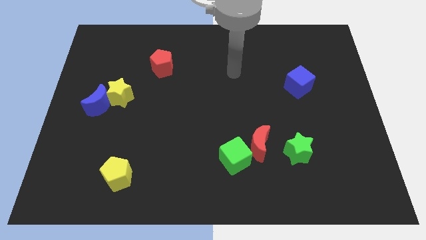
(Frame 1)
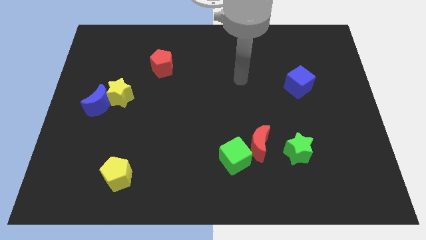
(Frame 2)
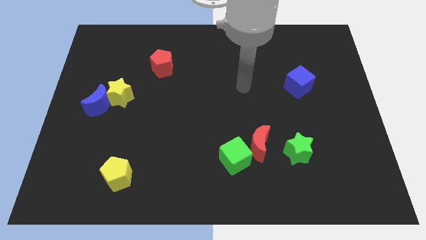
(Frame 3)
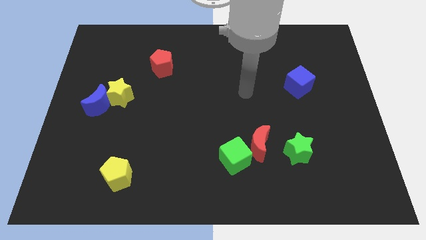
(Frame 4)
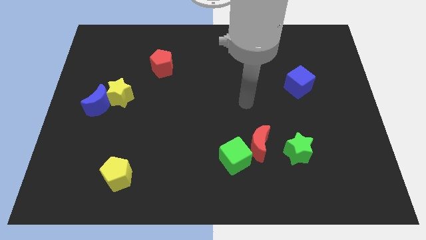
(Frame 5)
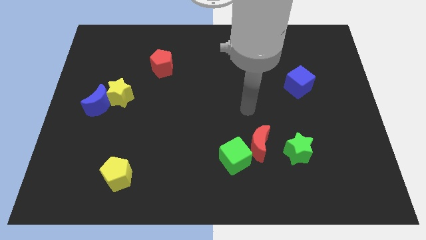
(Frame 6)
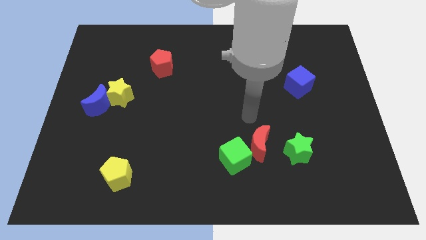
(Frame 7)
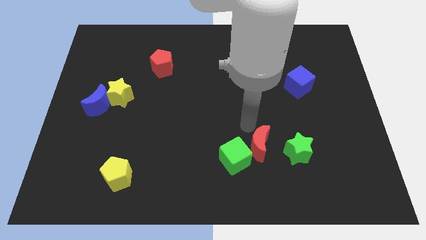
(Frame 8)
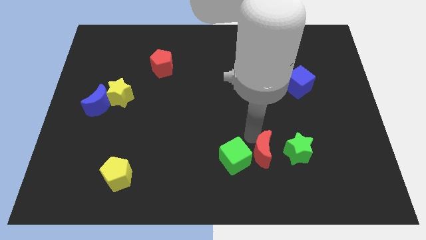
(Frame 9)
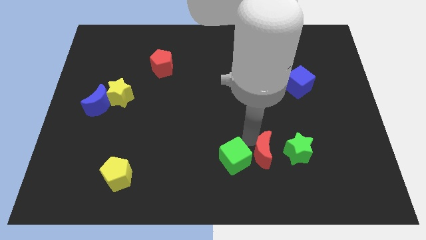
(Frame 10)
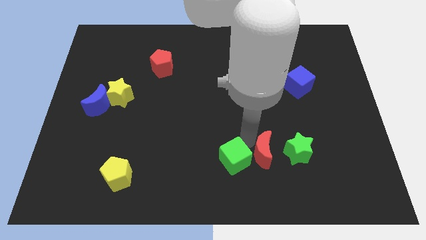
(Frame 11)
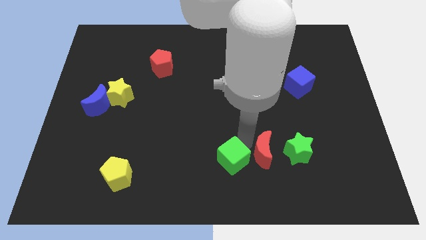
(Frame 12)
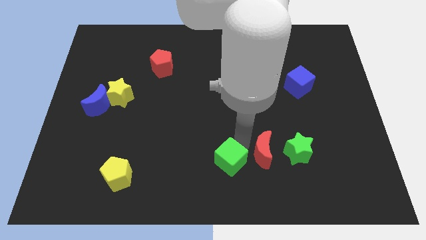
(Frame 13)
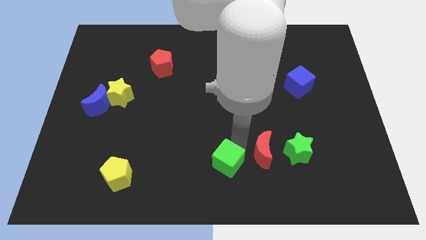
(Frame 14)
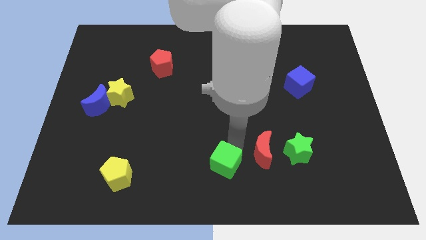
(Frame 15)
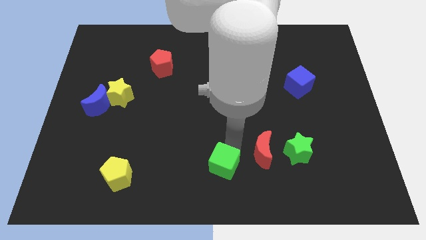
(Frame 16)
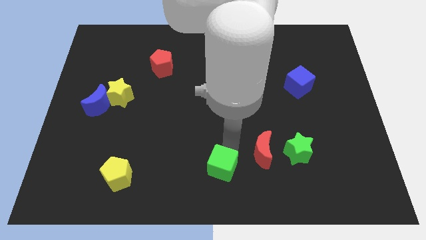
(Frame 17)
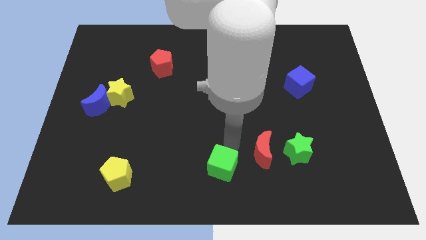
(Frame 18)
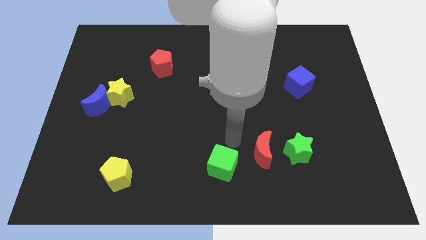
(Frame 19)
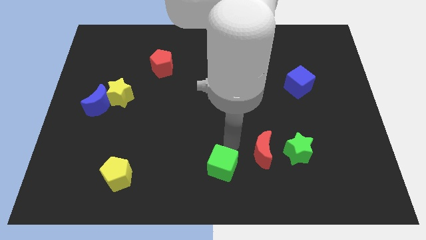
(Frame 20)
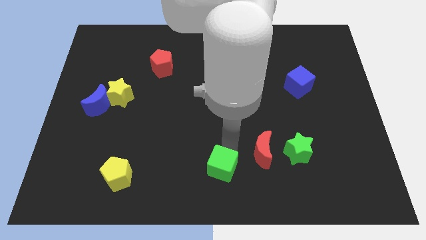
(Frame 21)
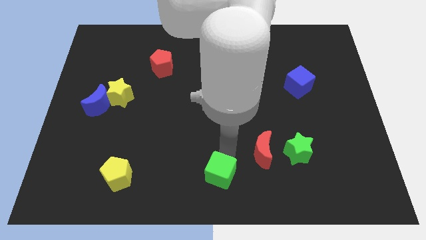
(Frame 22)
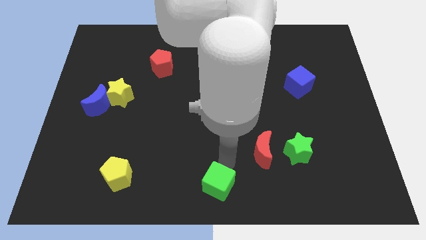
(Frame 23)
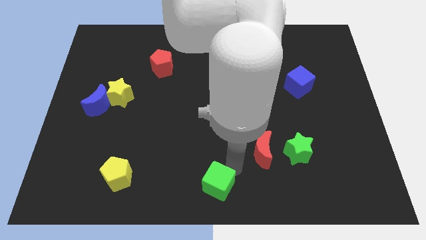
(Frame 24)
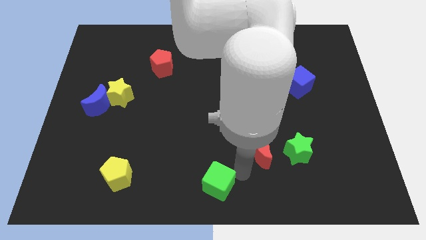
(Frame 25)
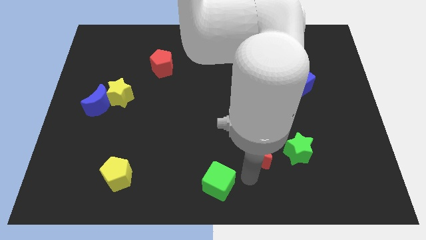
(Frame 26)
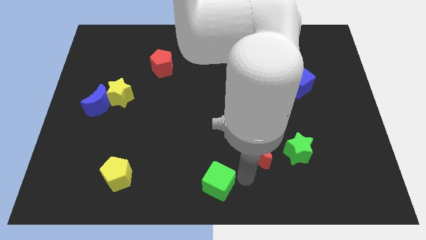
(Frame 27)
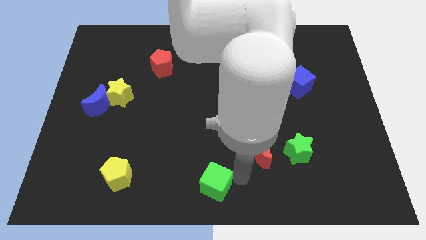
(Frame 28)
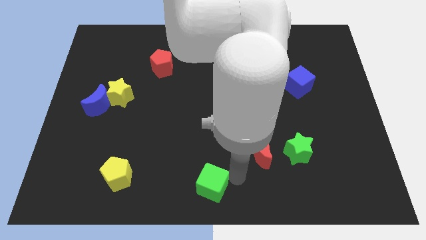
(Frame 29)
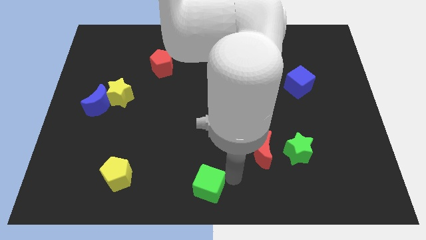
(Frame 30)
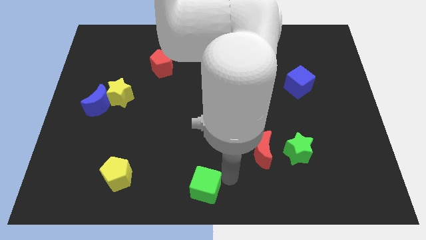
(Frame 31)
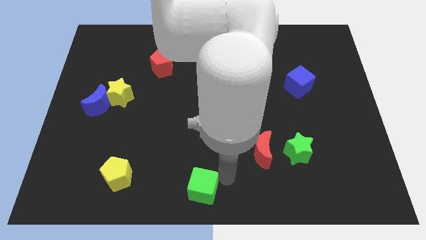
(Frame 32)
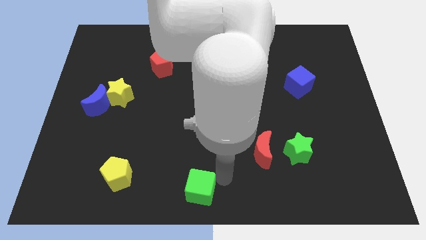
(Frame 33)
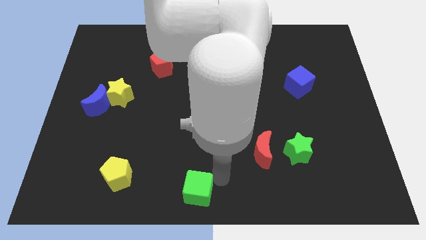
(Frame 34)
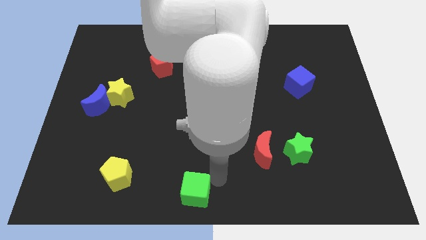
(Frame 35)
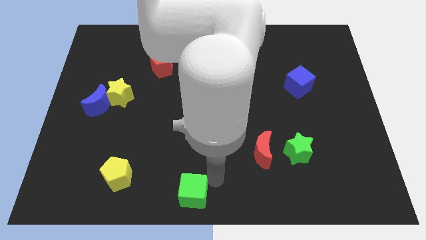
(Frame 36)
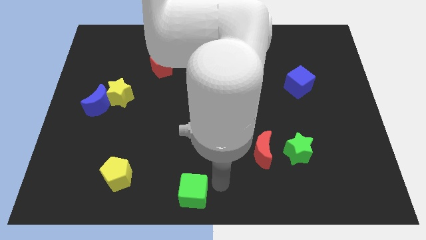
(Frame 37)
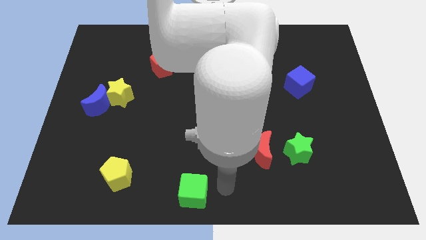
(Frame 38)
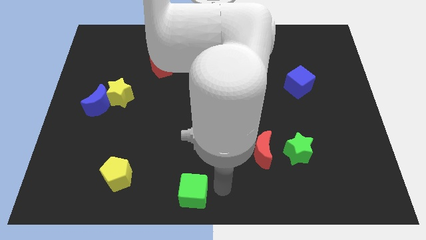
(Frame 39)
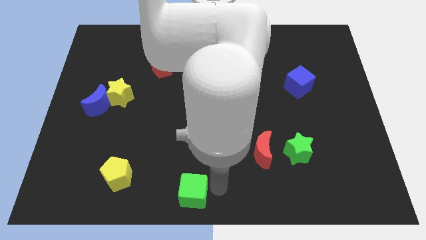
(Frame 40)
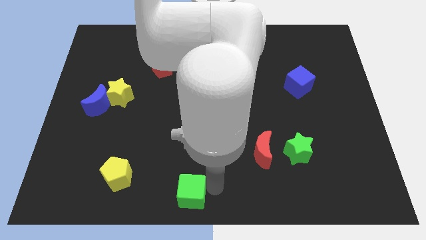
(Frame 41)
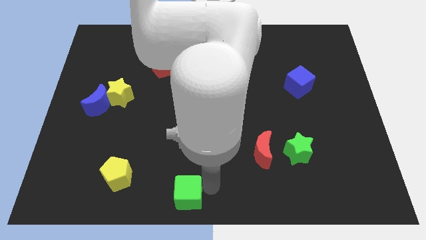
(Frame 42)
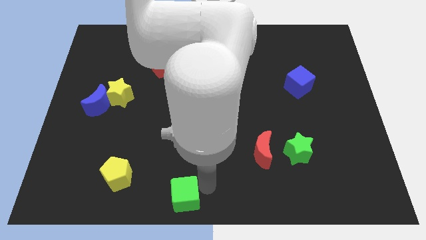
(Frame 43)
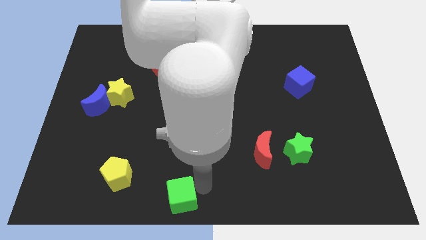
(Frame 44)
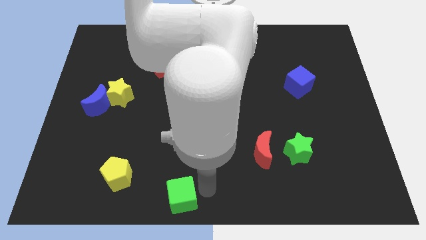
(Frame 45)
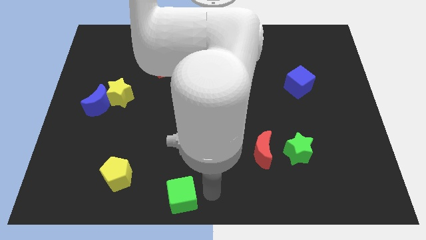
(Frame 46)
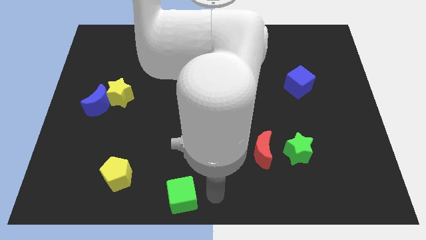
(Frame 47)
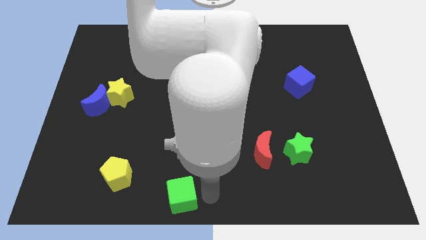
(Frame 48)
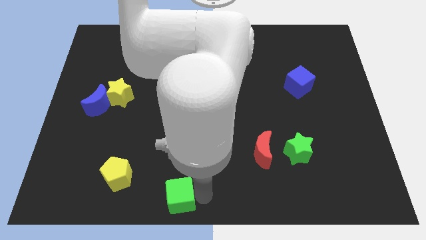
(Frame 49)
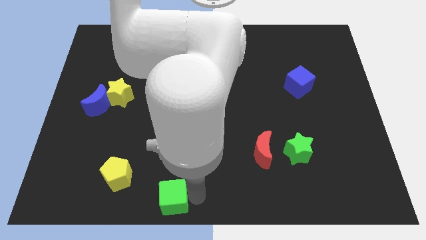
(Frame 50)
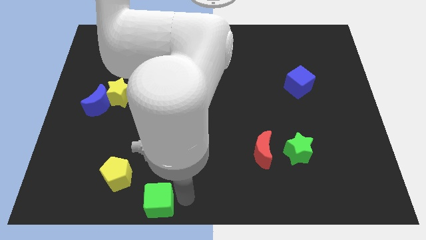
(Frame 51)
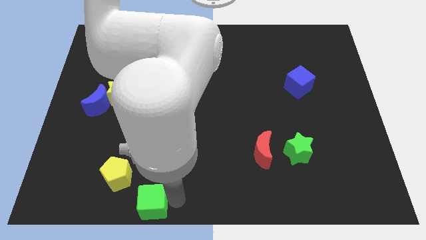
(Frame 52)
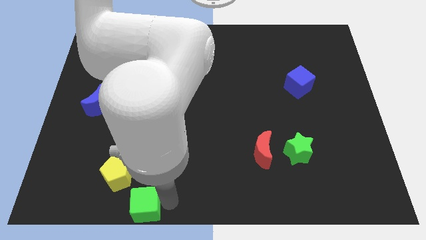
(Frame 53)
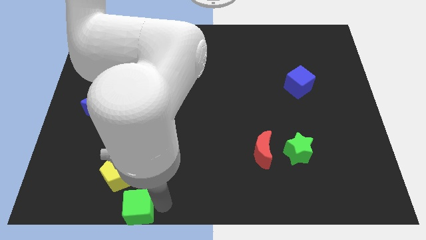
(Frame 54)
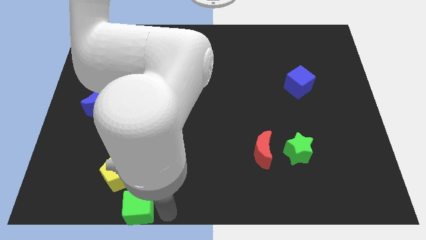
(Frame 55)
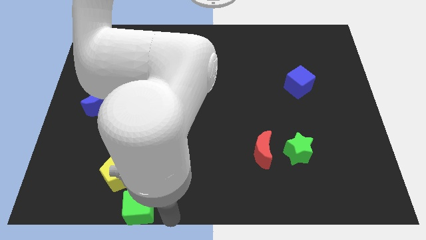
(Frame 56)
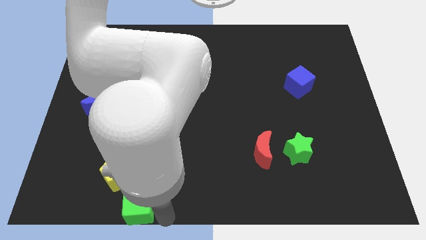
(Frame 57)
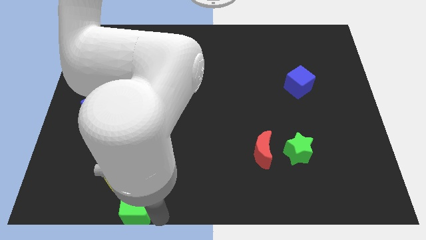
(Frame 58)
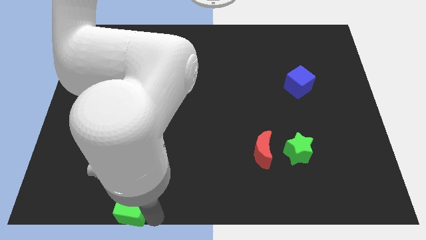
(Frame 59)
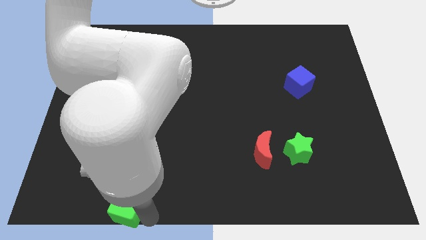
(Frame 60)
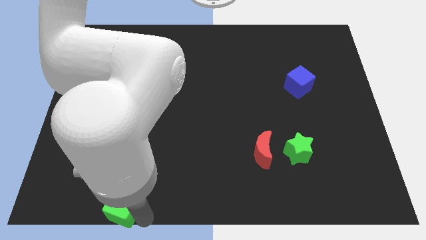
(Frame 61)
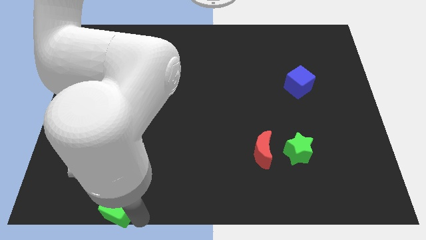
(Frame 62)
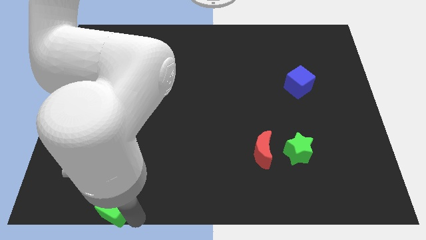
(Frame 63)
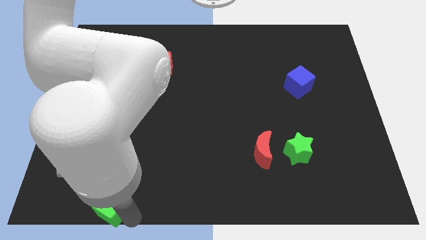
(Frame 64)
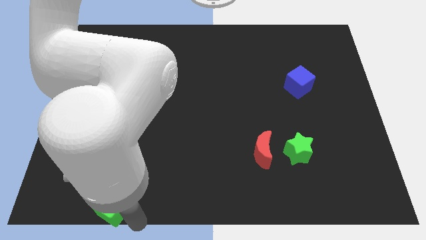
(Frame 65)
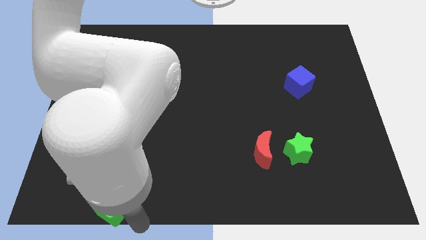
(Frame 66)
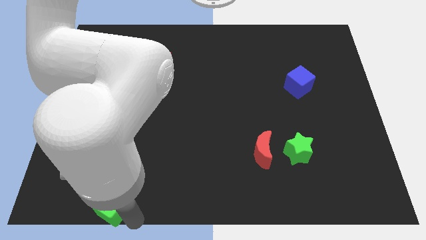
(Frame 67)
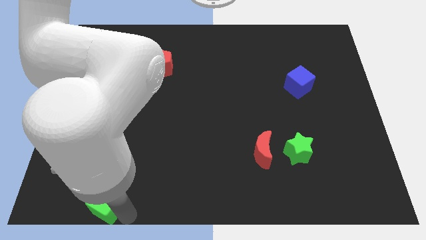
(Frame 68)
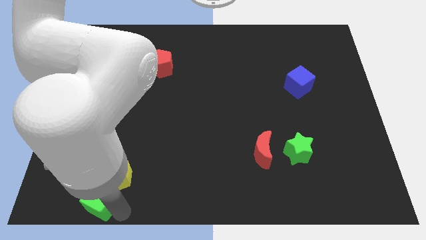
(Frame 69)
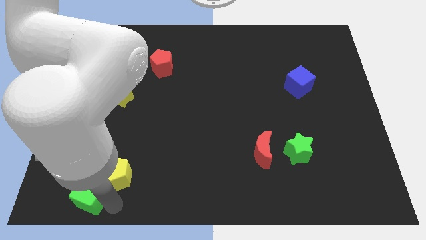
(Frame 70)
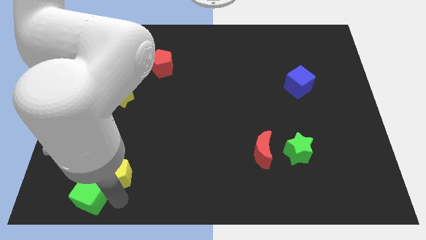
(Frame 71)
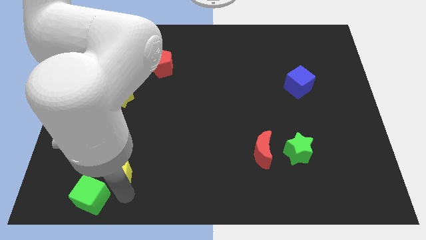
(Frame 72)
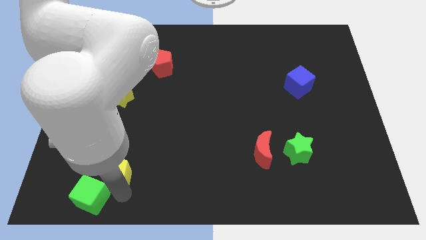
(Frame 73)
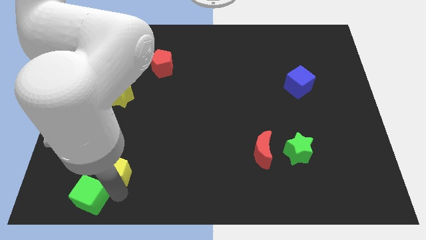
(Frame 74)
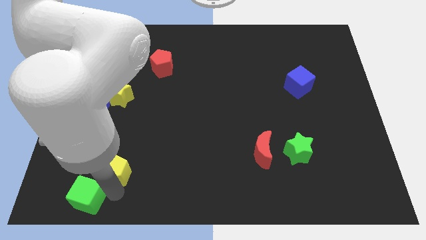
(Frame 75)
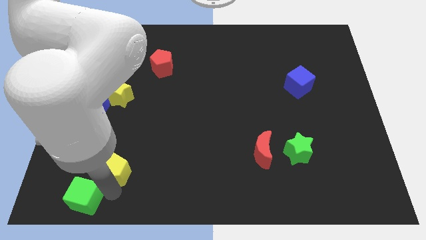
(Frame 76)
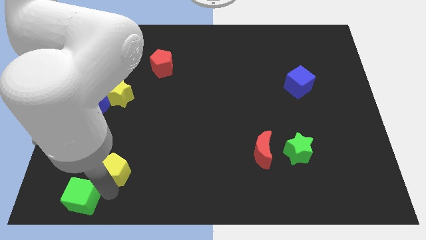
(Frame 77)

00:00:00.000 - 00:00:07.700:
put the green cube to the lower left corner
